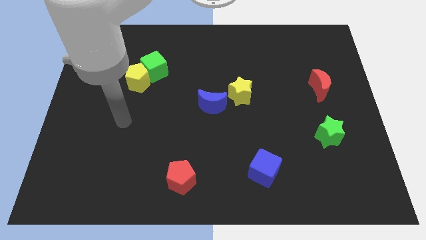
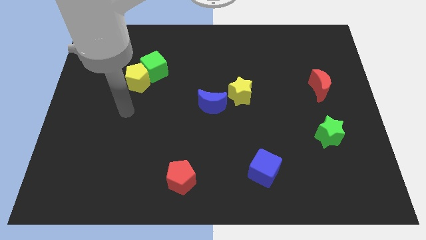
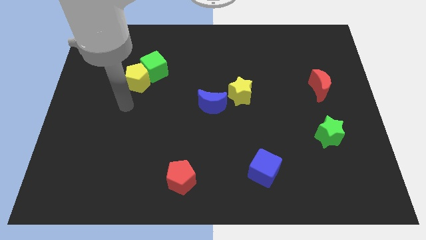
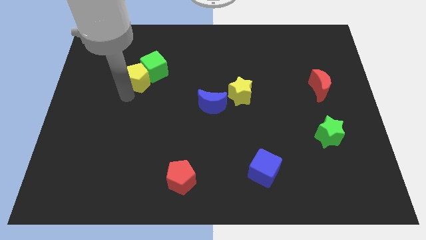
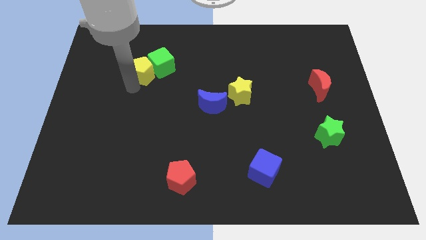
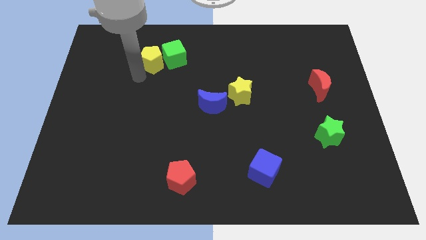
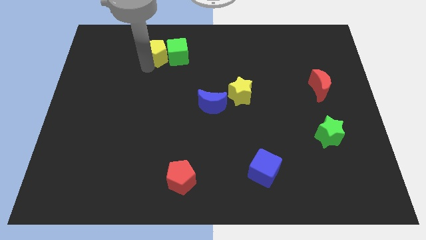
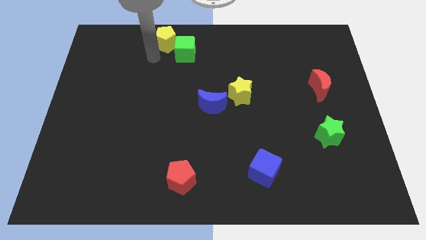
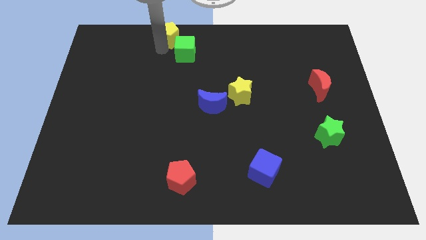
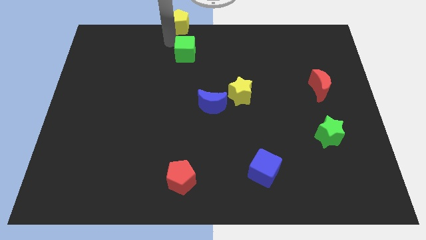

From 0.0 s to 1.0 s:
move the green cube away from the yellow pentagon

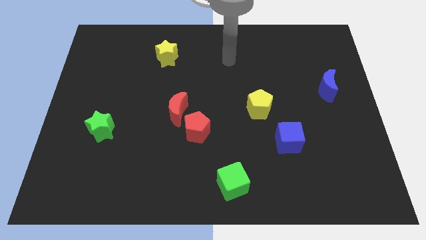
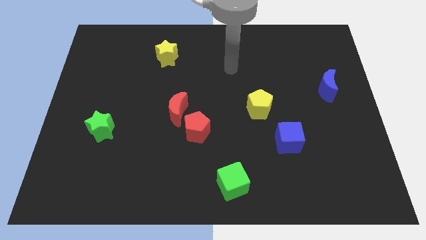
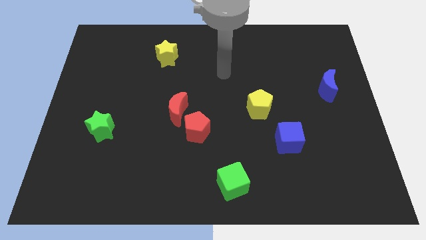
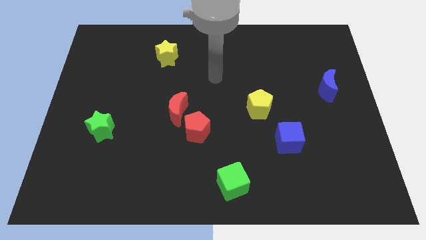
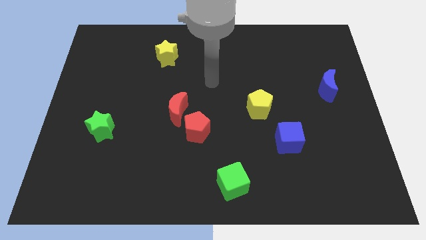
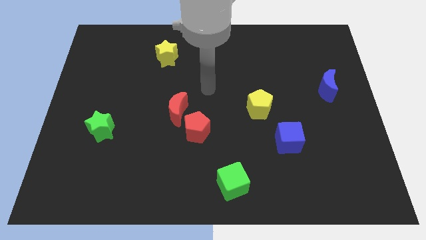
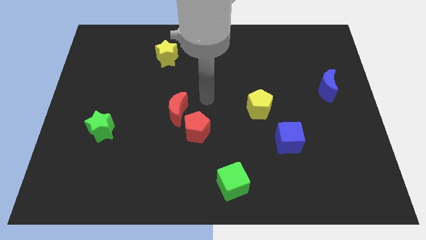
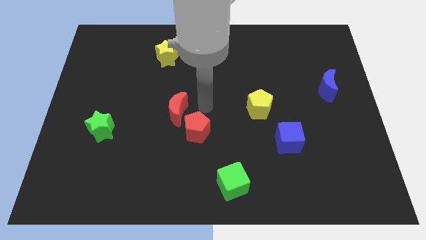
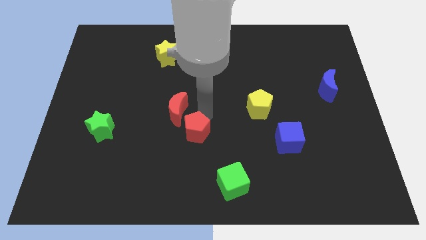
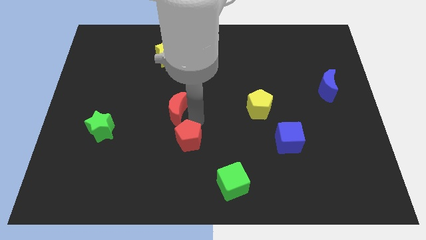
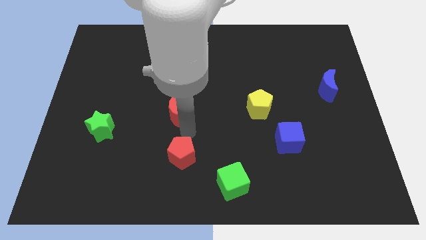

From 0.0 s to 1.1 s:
pull the red moon apart from the red pentagon

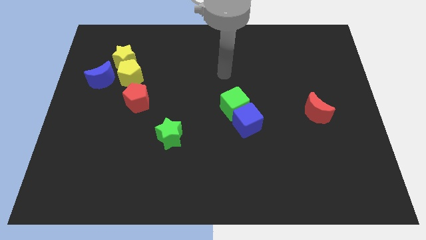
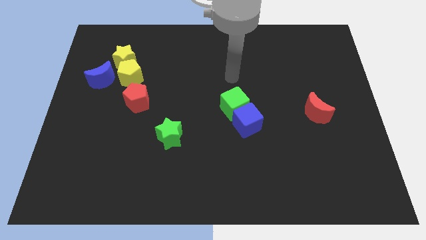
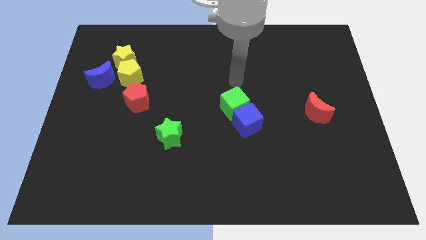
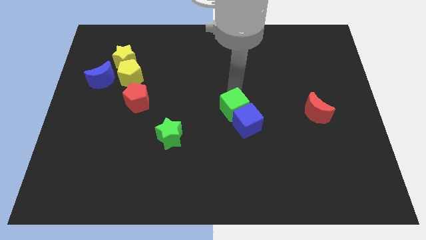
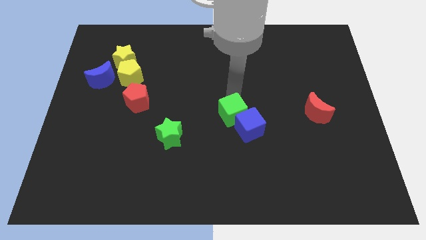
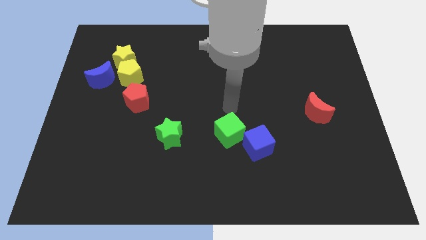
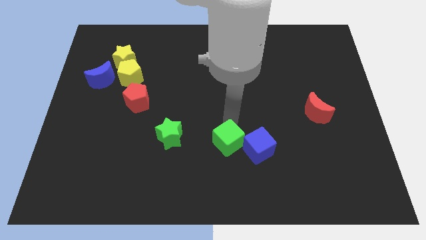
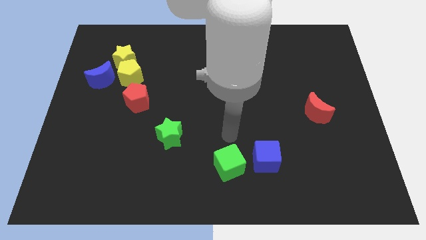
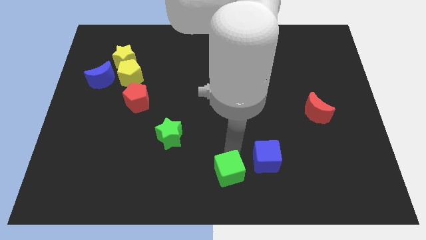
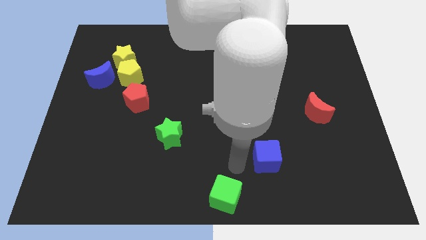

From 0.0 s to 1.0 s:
separate the blue cube from the green cube

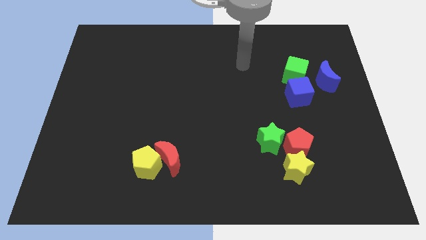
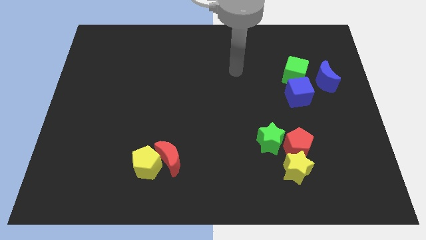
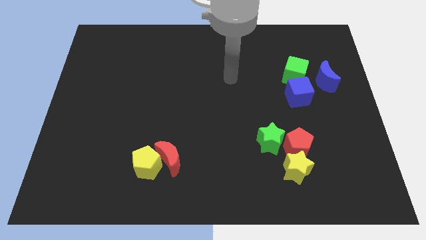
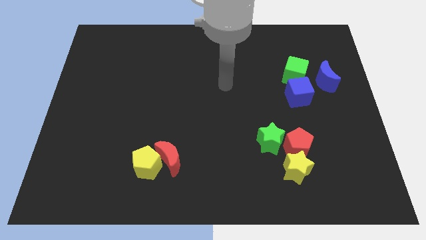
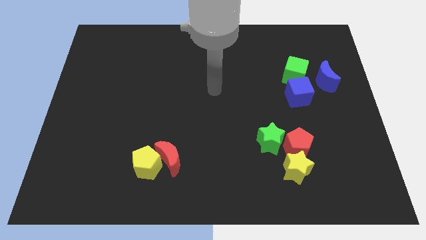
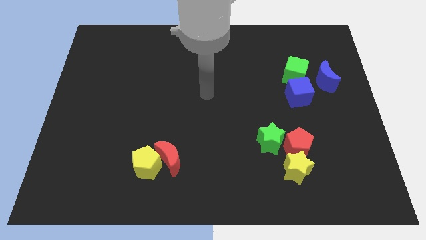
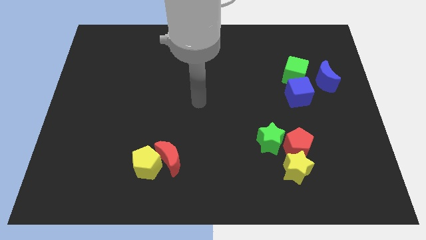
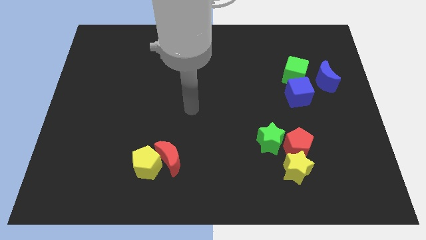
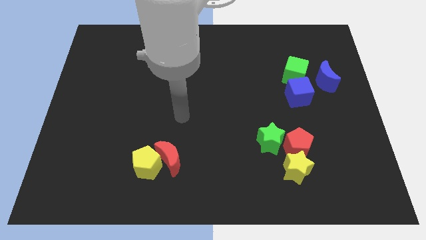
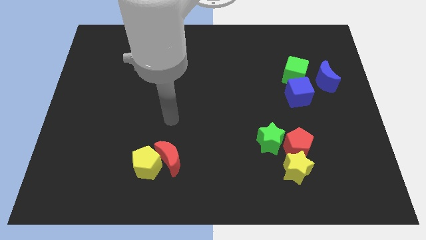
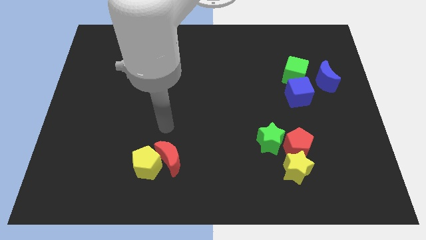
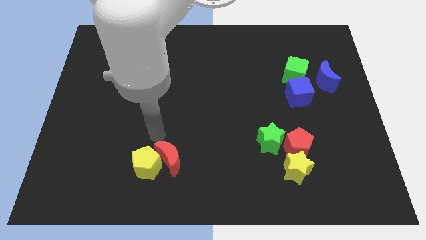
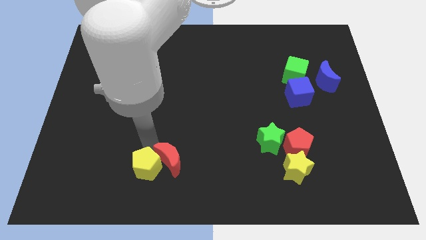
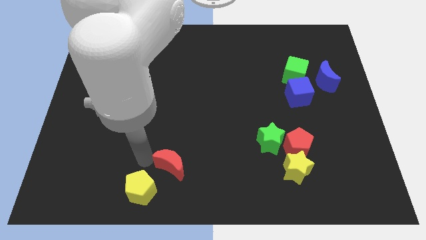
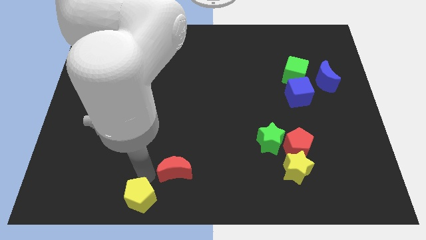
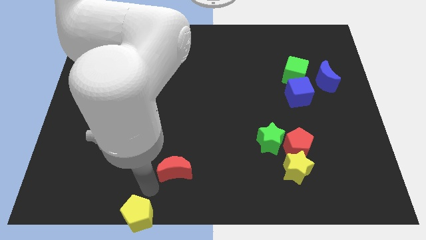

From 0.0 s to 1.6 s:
move the red moon away from the yellow pentagon

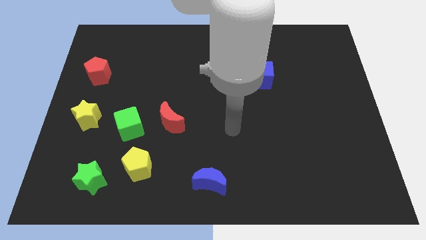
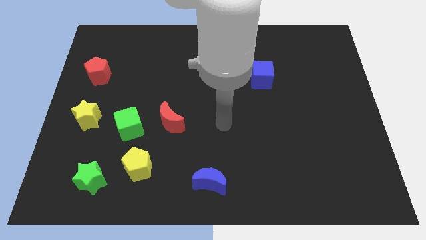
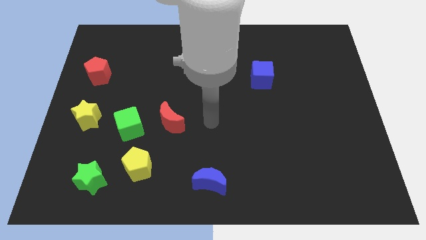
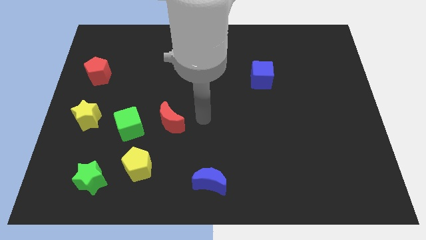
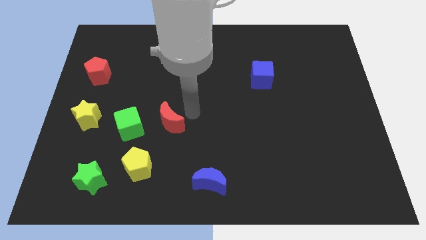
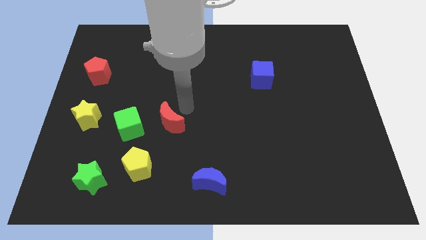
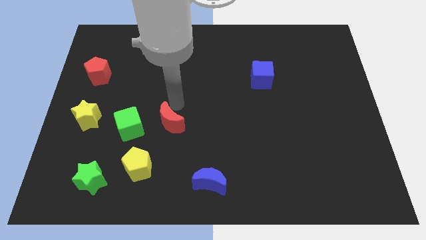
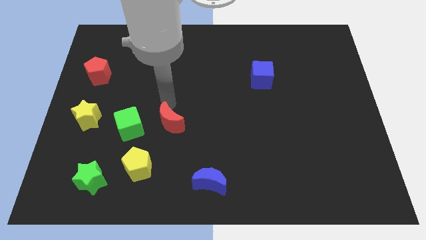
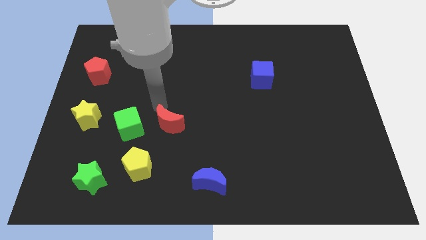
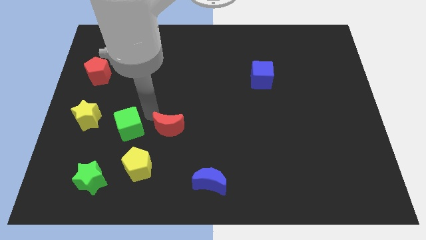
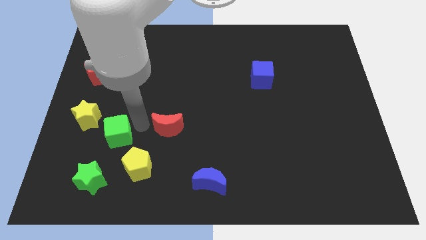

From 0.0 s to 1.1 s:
move the red moon away from the green cube

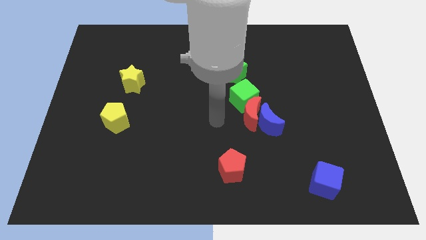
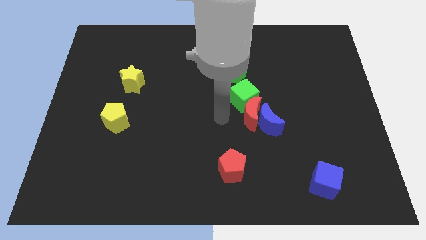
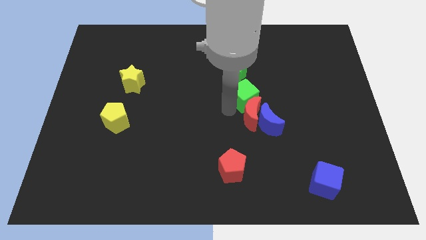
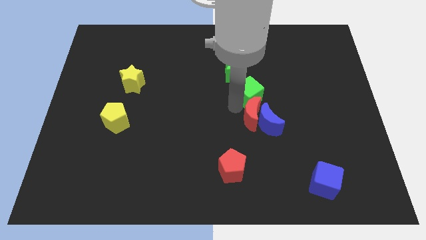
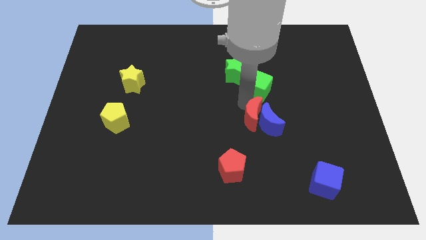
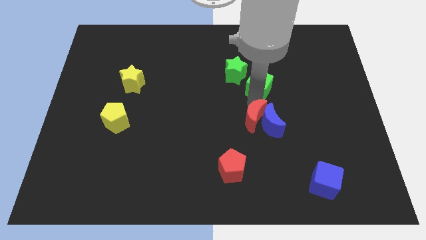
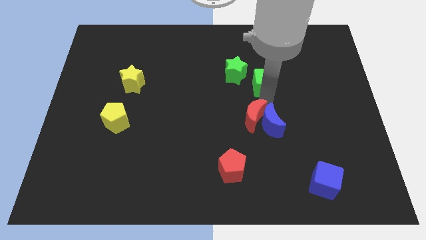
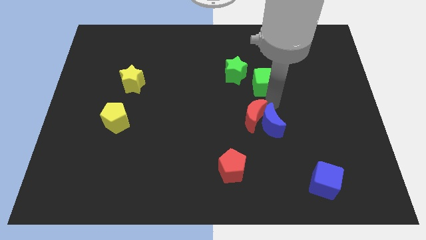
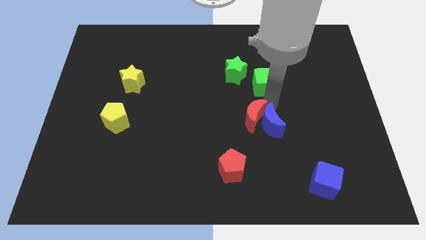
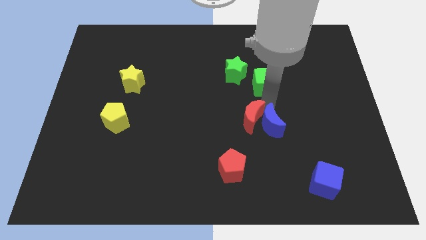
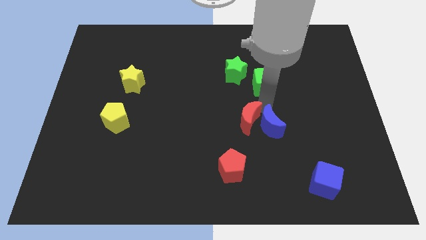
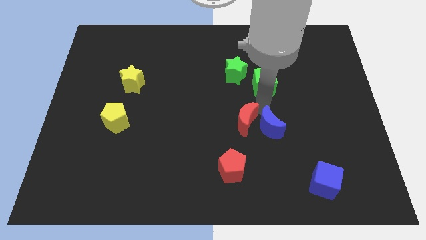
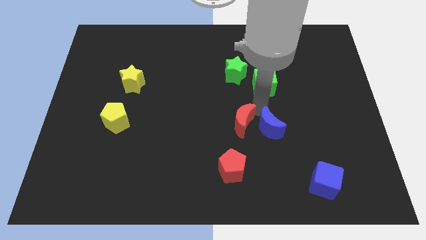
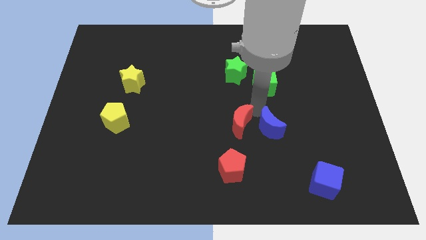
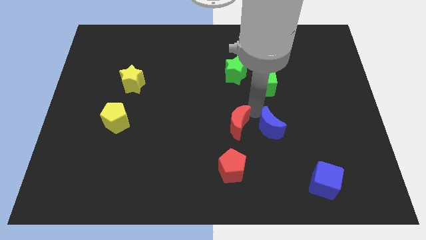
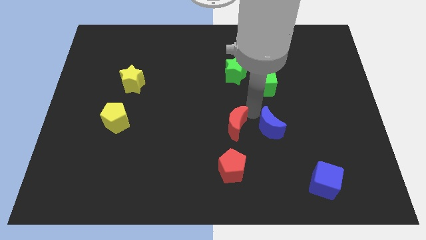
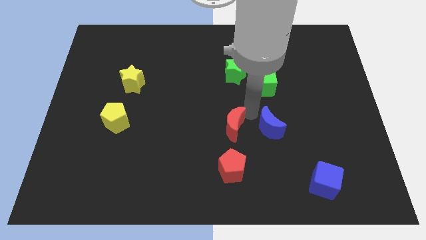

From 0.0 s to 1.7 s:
pull the red moon apart from the blue moon and green cube

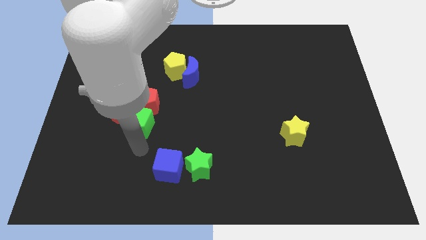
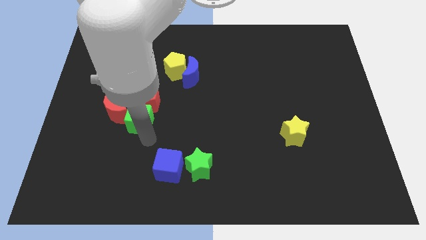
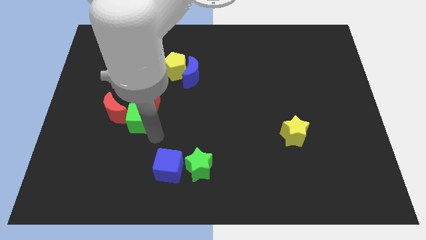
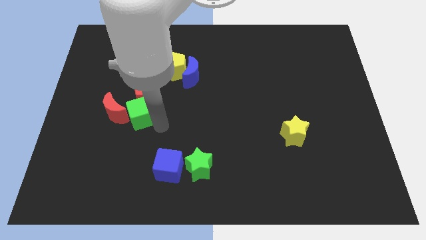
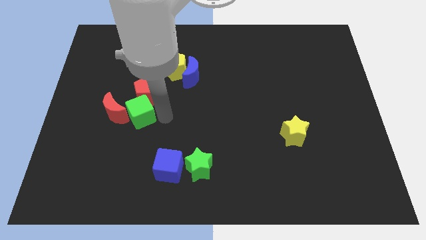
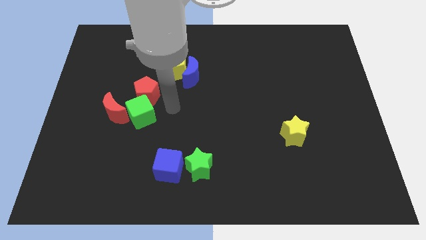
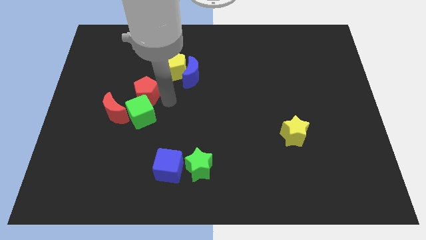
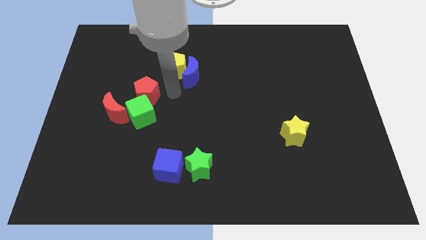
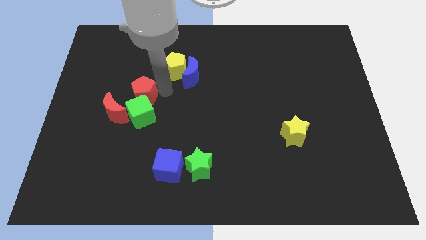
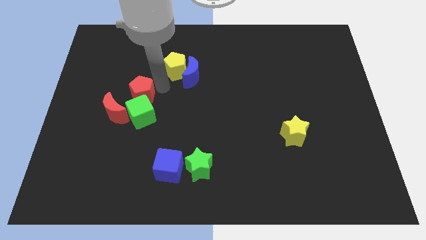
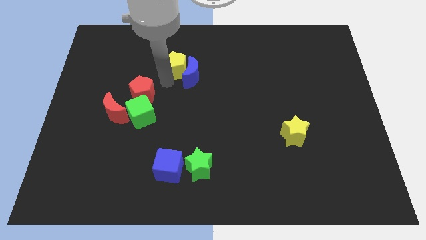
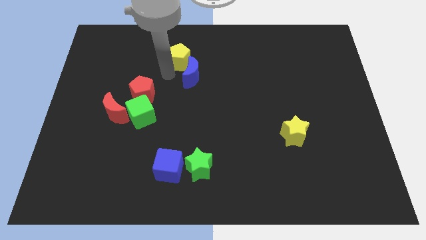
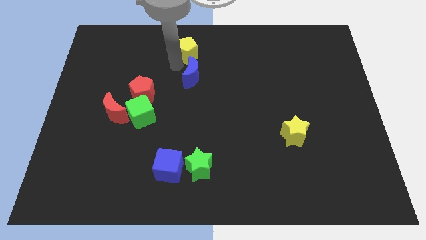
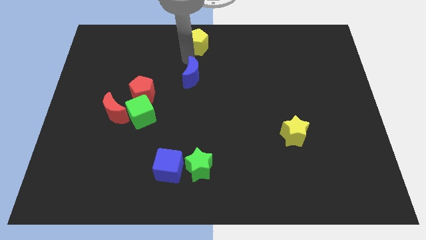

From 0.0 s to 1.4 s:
separate the blue moon from the yellow pentagon

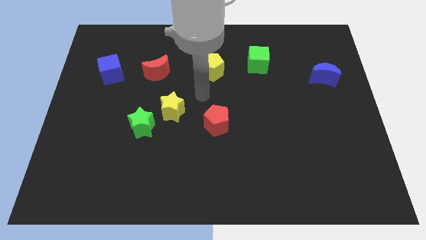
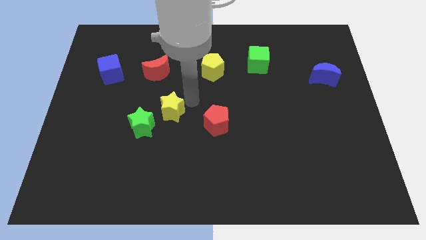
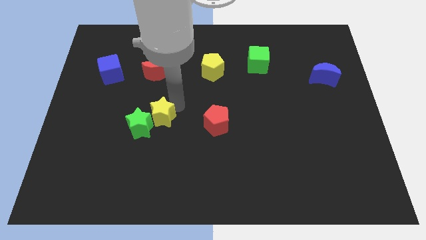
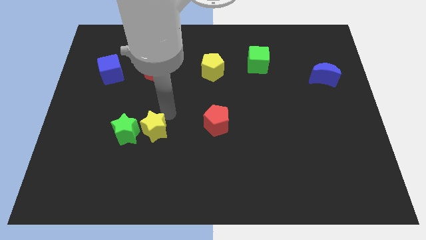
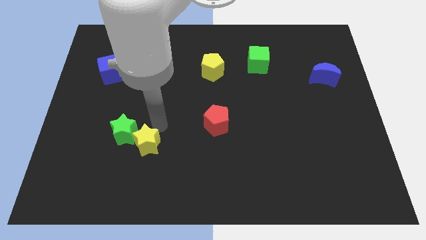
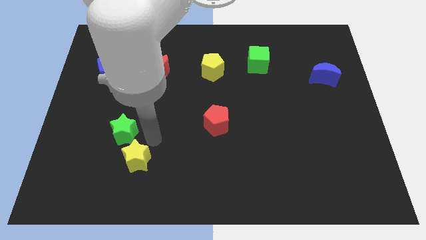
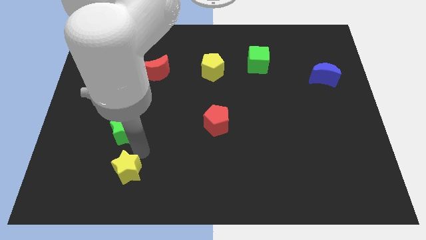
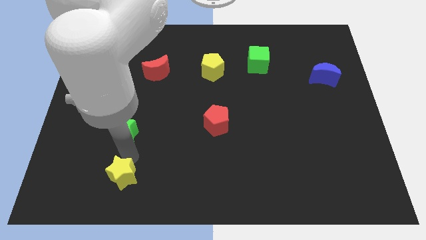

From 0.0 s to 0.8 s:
move the green star away from the yellow star
